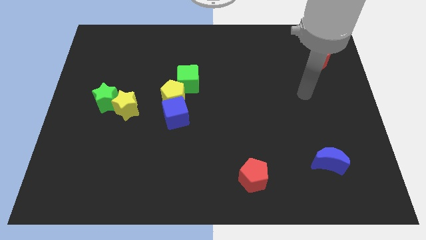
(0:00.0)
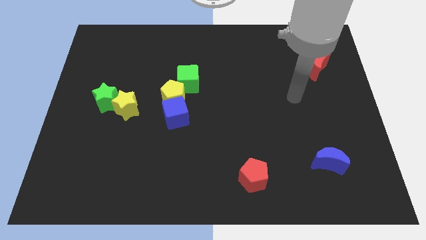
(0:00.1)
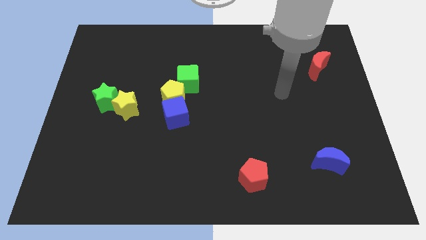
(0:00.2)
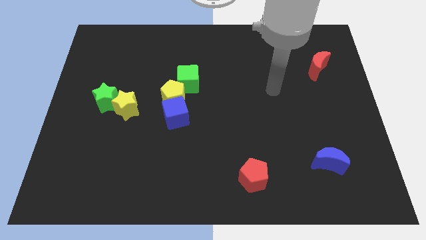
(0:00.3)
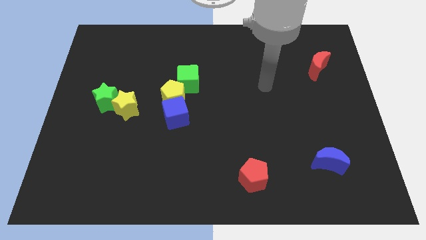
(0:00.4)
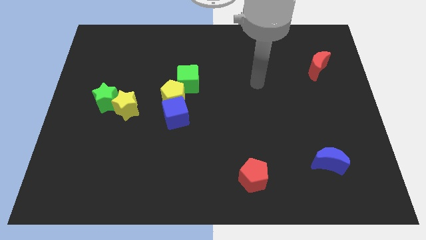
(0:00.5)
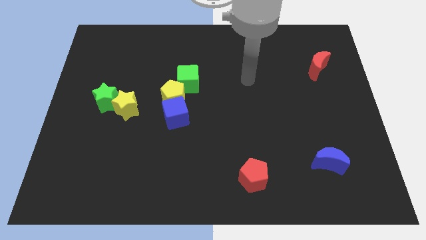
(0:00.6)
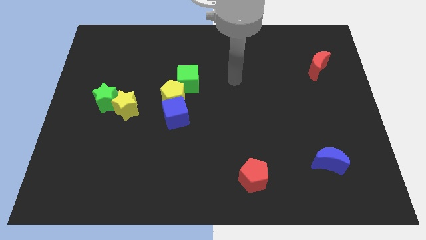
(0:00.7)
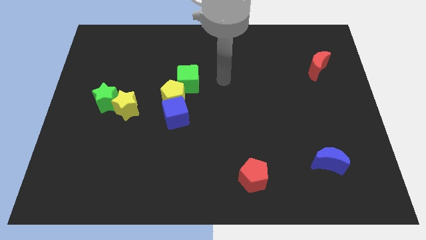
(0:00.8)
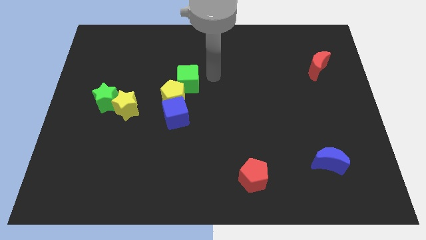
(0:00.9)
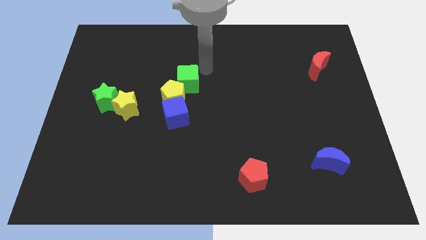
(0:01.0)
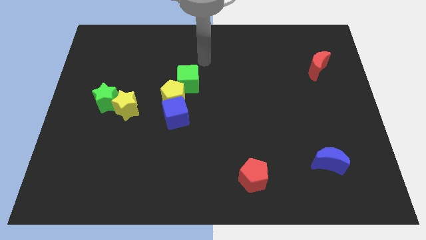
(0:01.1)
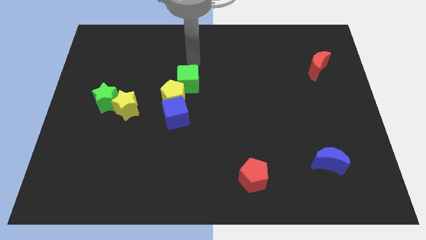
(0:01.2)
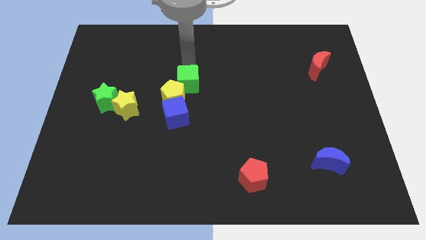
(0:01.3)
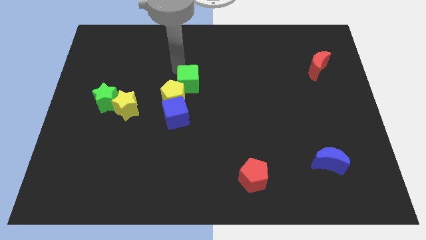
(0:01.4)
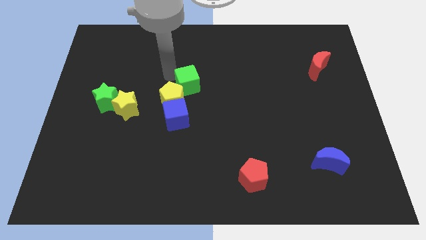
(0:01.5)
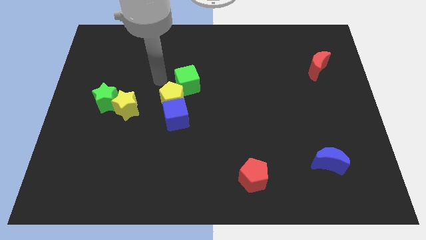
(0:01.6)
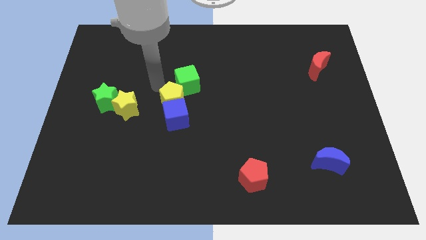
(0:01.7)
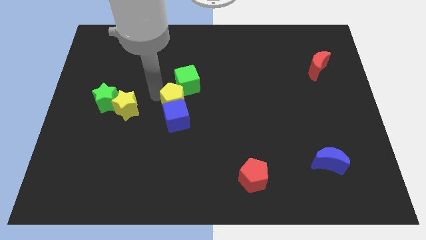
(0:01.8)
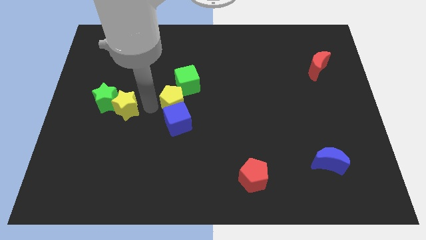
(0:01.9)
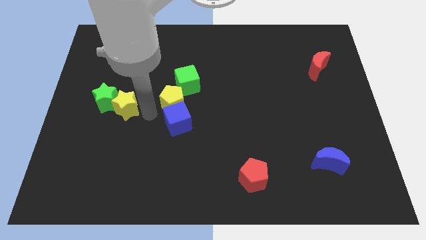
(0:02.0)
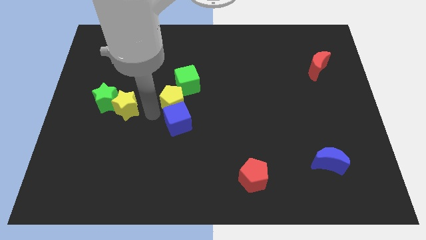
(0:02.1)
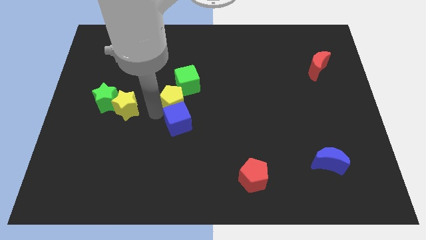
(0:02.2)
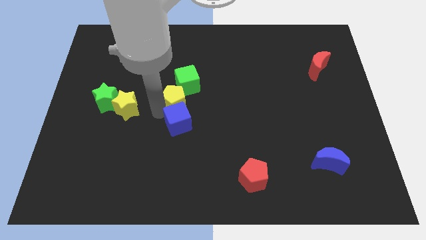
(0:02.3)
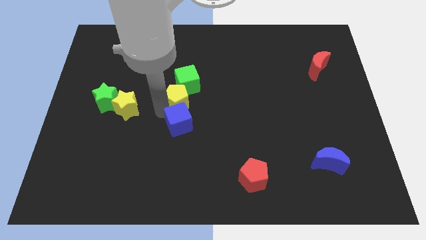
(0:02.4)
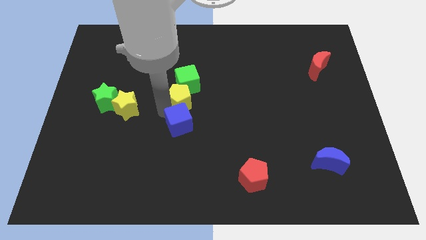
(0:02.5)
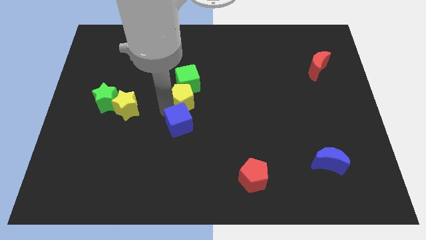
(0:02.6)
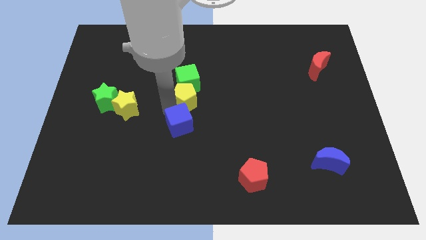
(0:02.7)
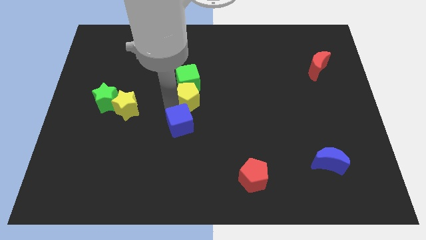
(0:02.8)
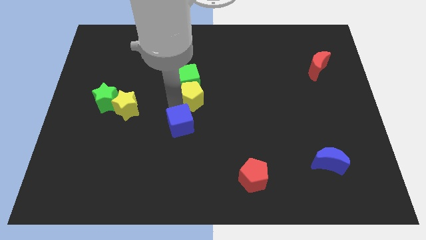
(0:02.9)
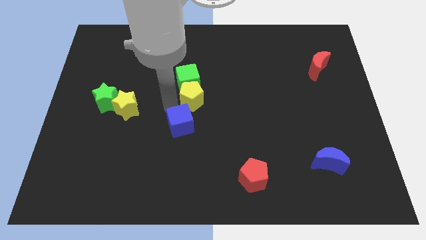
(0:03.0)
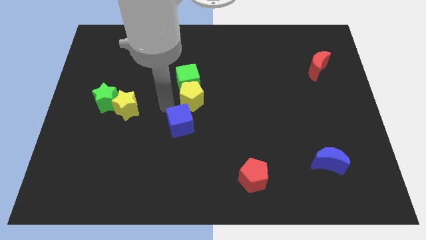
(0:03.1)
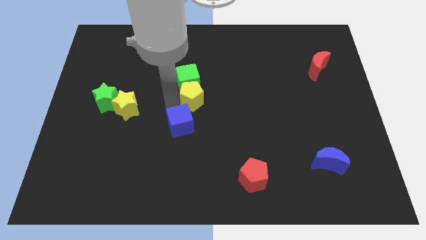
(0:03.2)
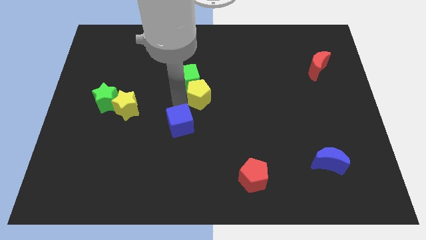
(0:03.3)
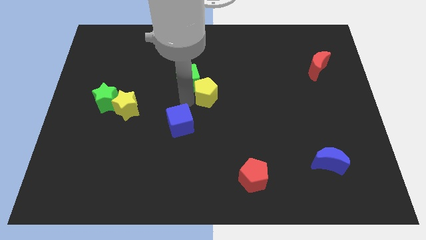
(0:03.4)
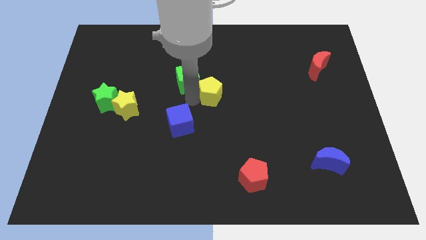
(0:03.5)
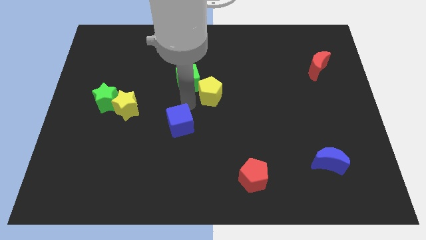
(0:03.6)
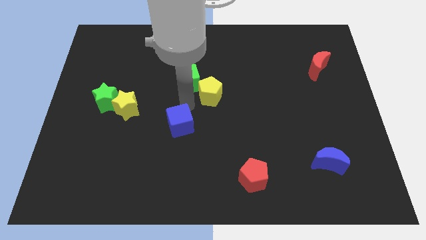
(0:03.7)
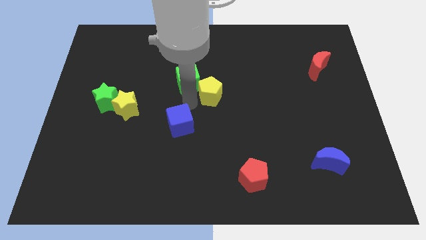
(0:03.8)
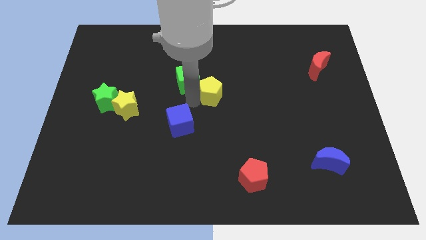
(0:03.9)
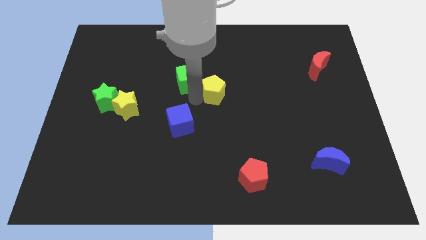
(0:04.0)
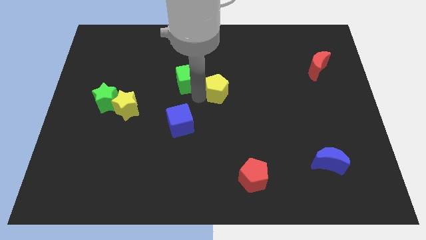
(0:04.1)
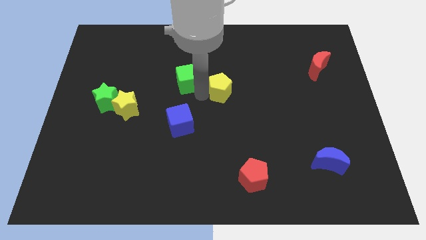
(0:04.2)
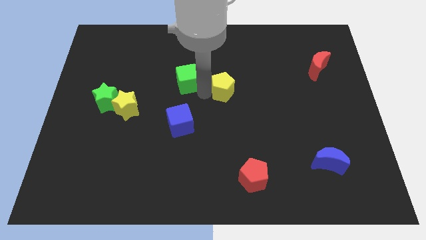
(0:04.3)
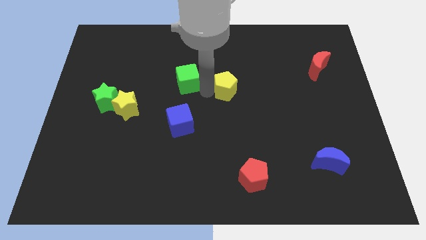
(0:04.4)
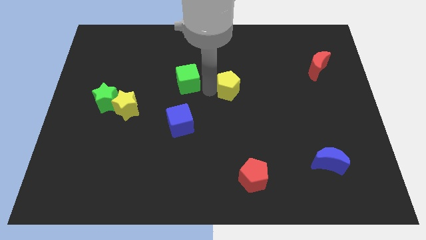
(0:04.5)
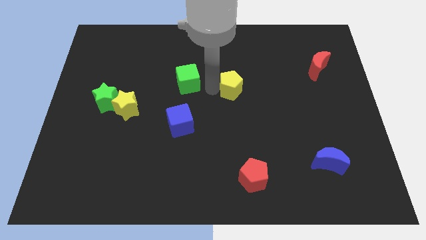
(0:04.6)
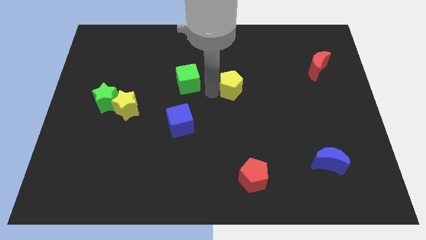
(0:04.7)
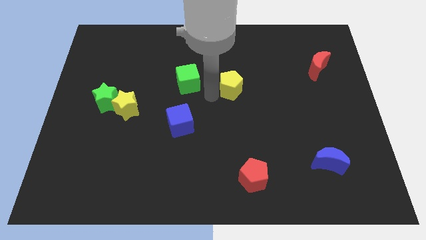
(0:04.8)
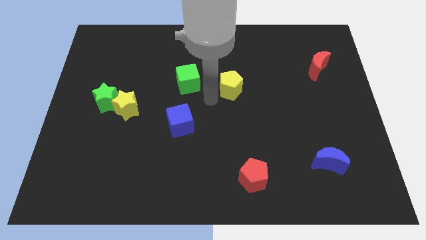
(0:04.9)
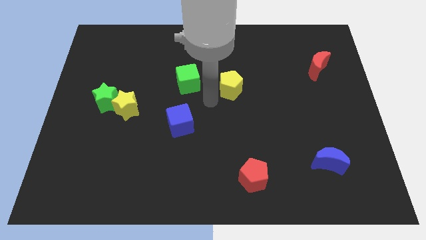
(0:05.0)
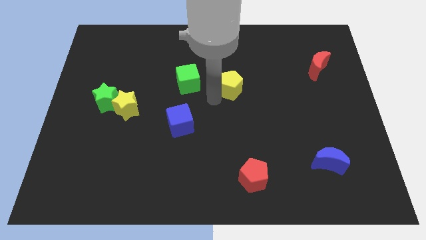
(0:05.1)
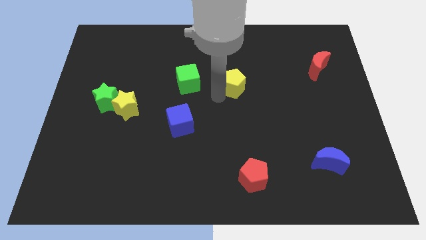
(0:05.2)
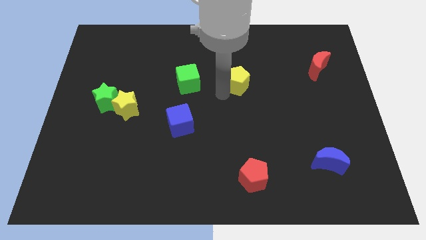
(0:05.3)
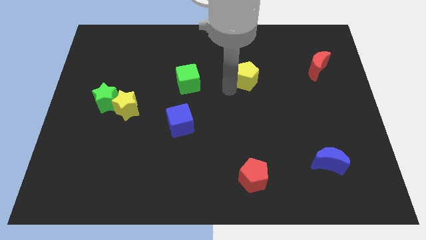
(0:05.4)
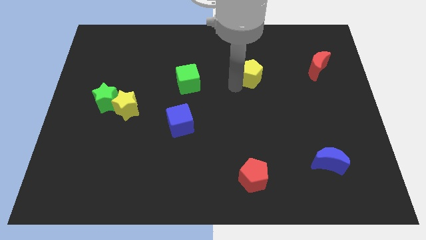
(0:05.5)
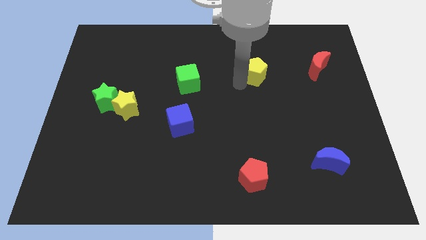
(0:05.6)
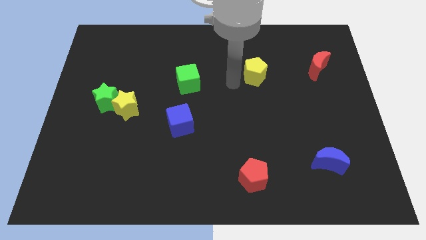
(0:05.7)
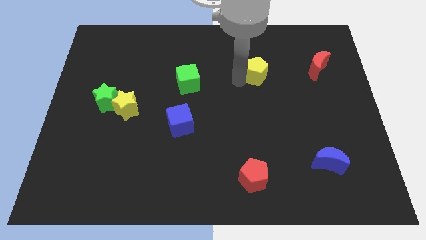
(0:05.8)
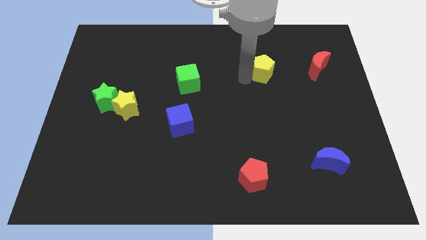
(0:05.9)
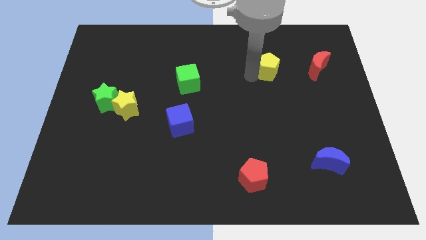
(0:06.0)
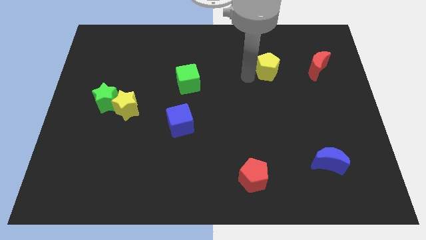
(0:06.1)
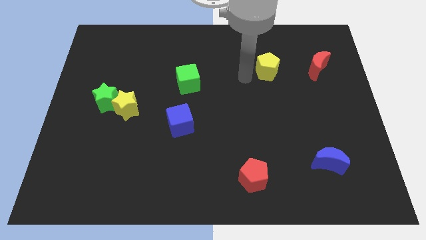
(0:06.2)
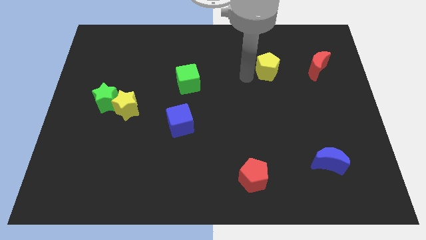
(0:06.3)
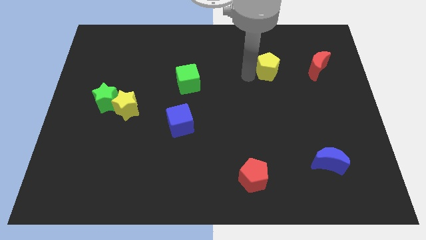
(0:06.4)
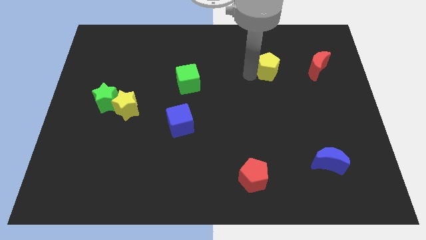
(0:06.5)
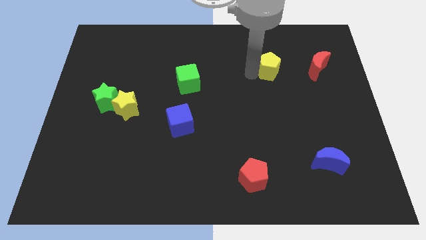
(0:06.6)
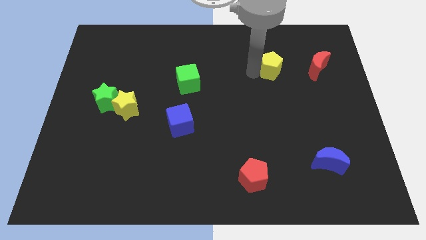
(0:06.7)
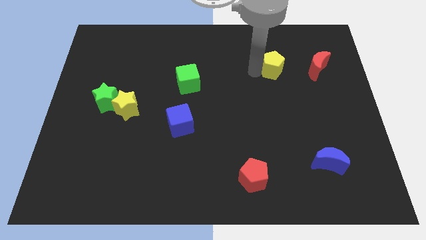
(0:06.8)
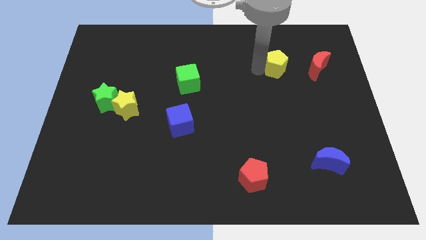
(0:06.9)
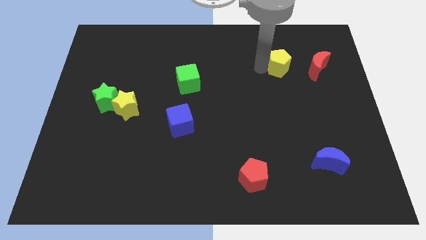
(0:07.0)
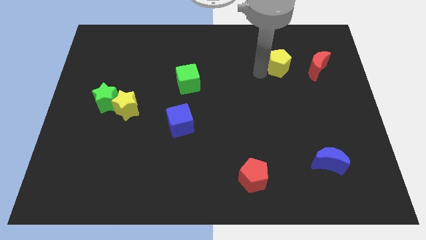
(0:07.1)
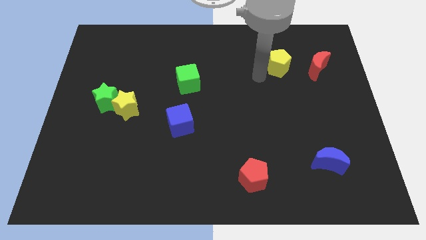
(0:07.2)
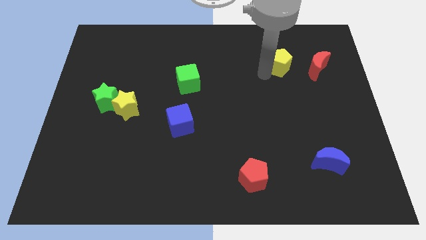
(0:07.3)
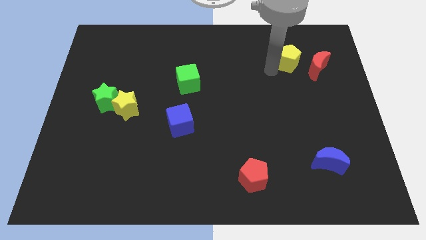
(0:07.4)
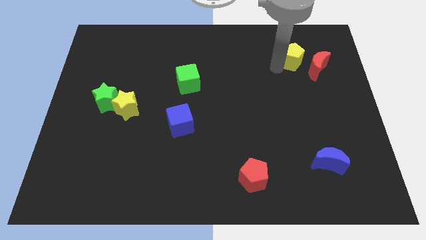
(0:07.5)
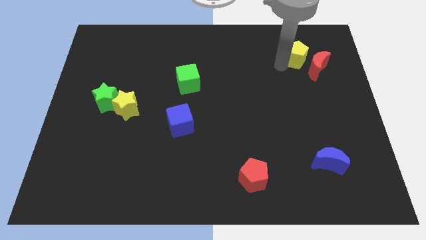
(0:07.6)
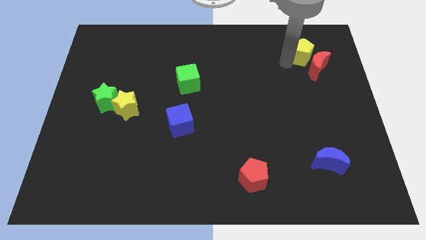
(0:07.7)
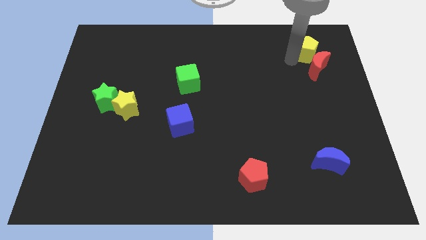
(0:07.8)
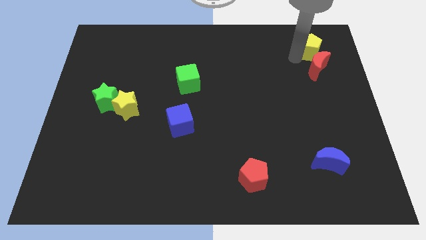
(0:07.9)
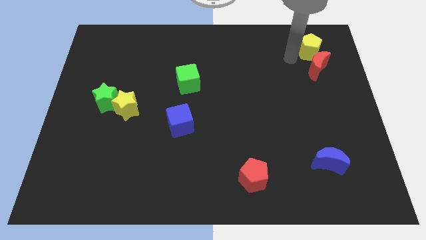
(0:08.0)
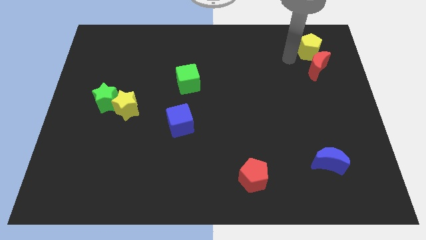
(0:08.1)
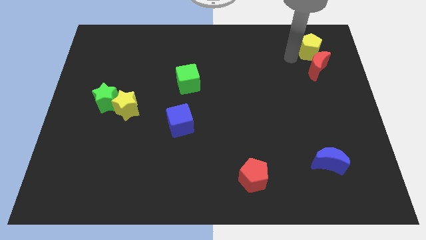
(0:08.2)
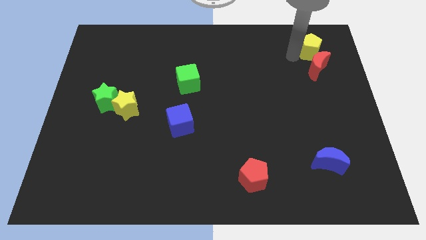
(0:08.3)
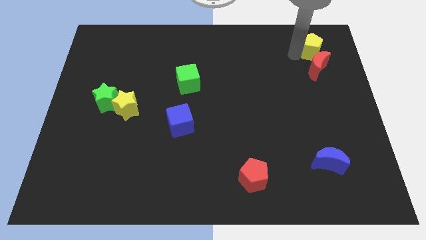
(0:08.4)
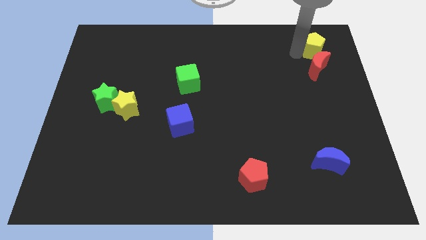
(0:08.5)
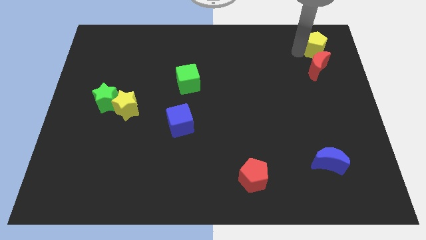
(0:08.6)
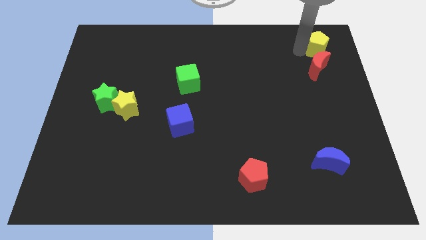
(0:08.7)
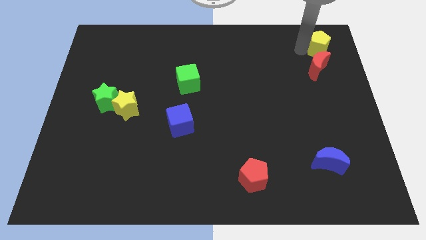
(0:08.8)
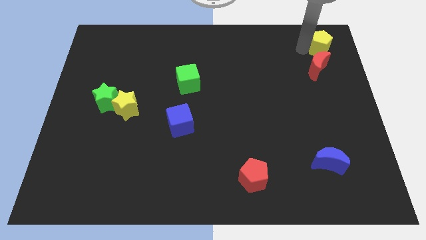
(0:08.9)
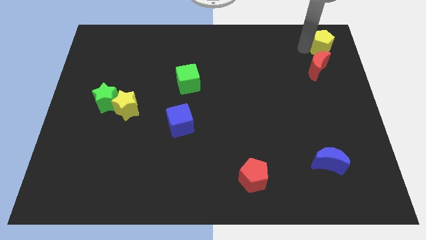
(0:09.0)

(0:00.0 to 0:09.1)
push the yellow pentagon to the top right of the board
